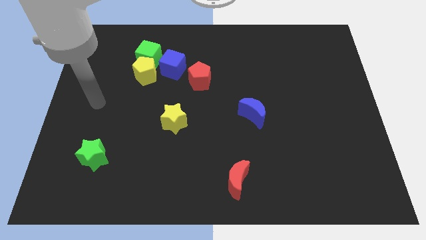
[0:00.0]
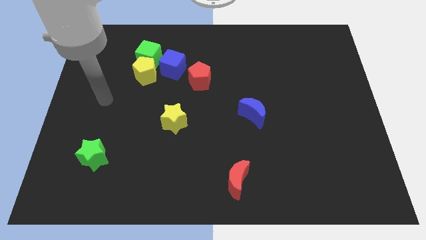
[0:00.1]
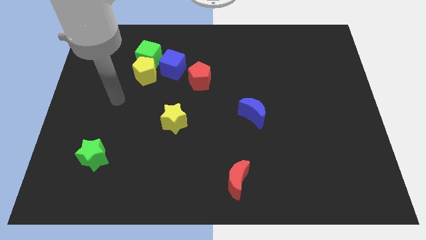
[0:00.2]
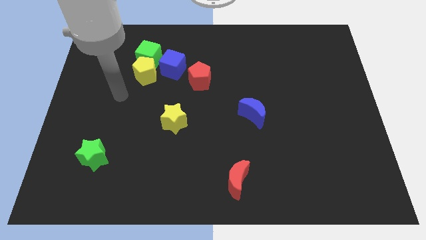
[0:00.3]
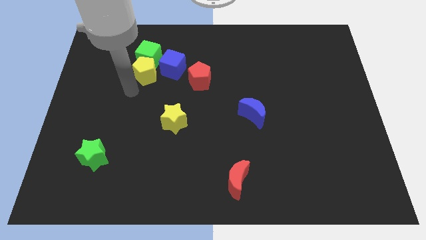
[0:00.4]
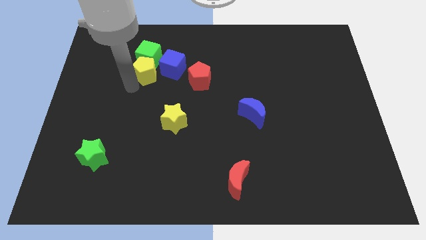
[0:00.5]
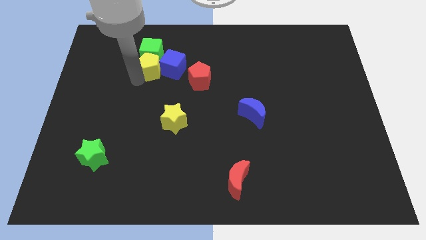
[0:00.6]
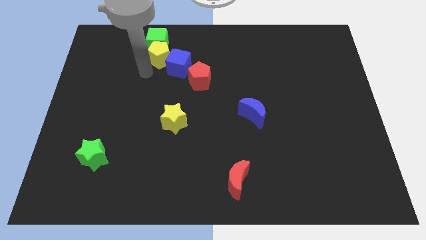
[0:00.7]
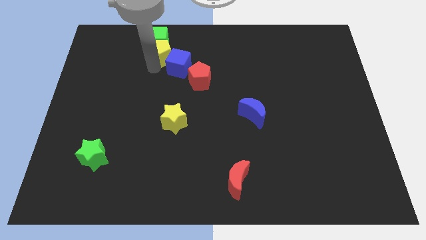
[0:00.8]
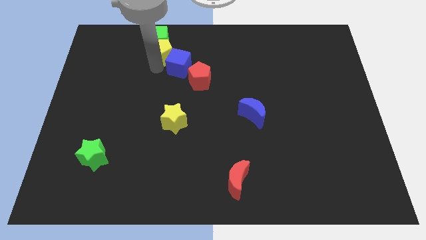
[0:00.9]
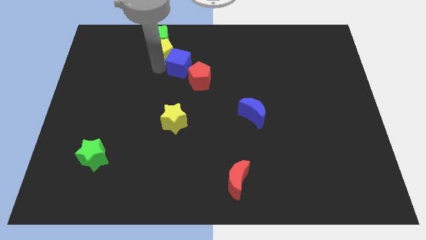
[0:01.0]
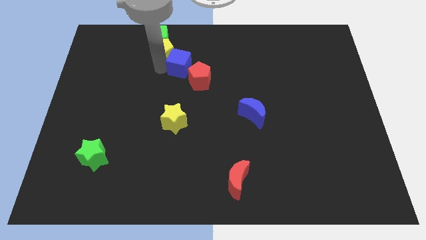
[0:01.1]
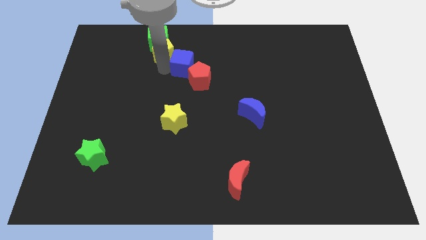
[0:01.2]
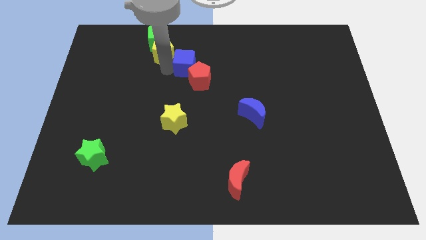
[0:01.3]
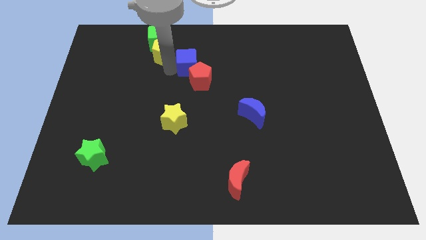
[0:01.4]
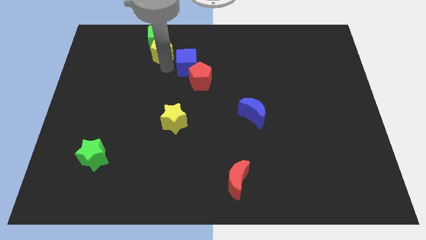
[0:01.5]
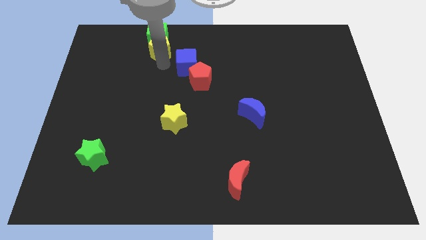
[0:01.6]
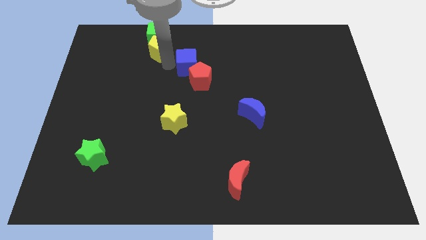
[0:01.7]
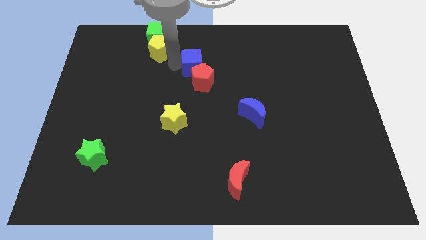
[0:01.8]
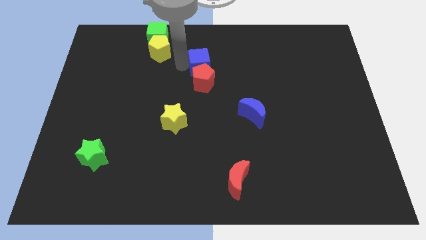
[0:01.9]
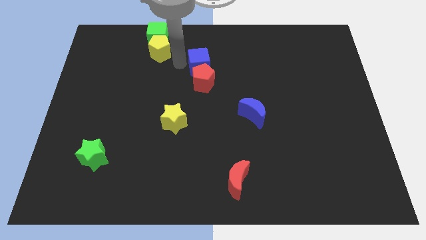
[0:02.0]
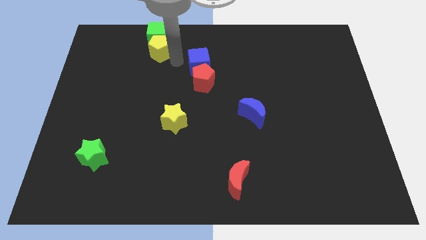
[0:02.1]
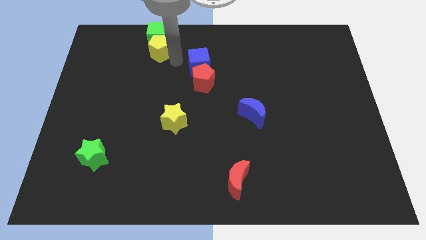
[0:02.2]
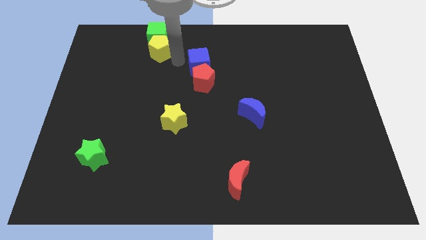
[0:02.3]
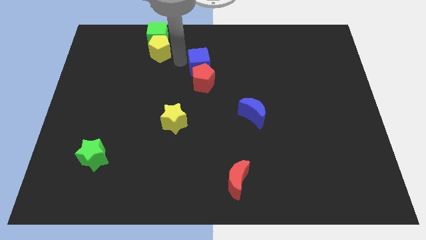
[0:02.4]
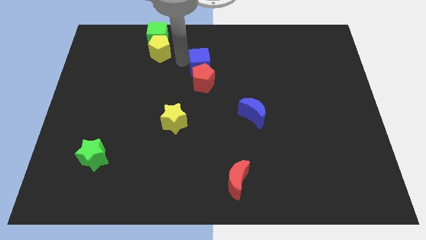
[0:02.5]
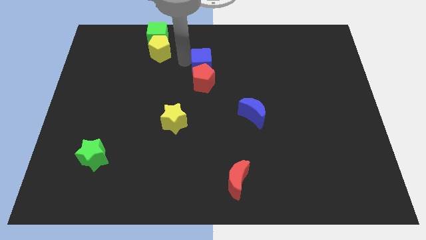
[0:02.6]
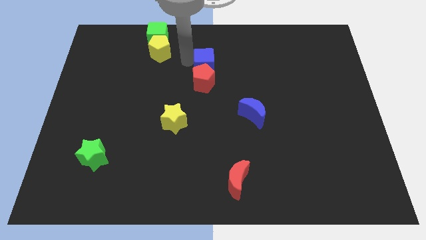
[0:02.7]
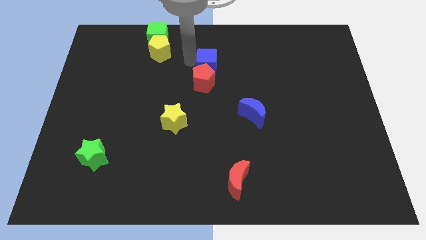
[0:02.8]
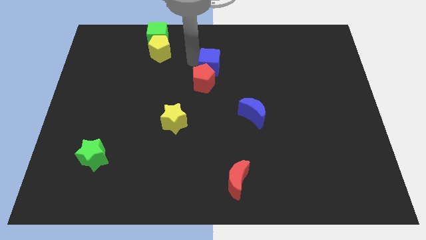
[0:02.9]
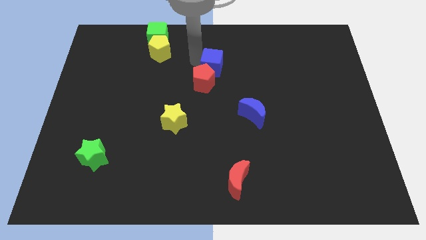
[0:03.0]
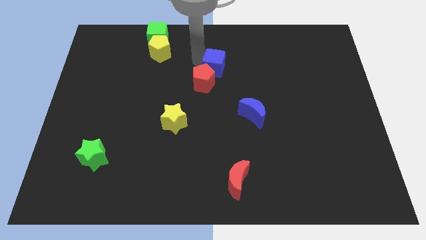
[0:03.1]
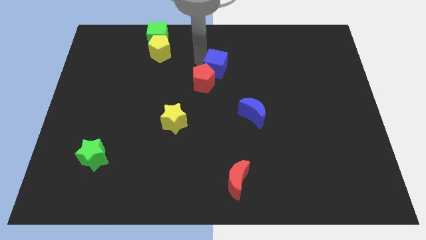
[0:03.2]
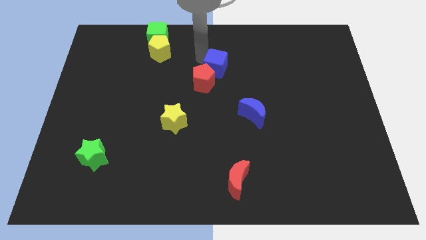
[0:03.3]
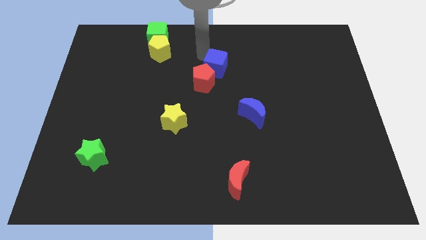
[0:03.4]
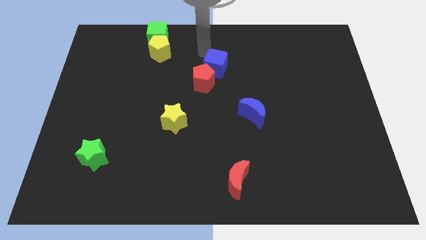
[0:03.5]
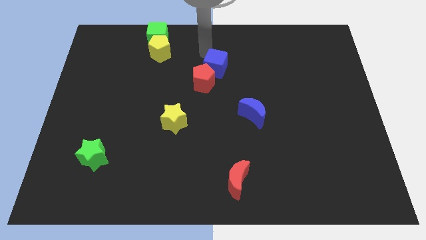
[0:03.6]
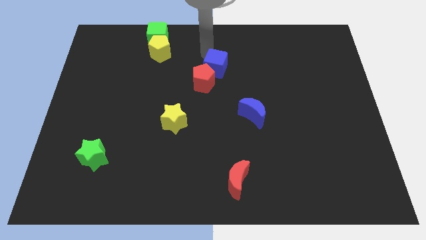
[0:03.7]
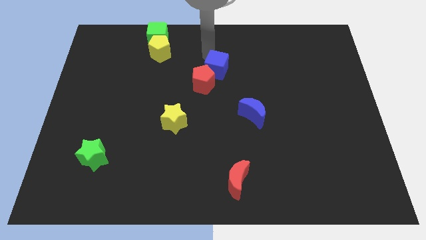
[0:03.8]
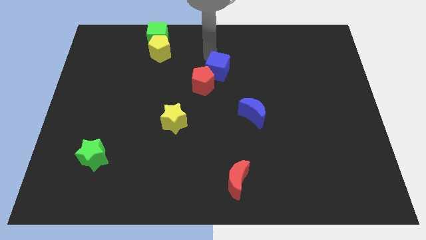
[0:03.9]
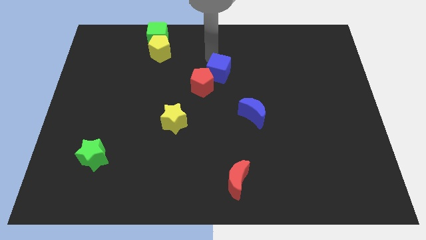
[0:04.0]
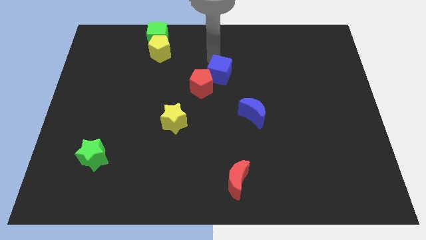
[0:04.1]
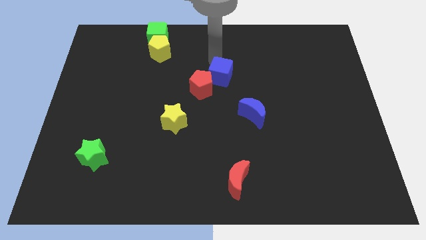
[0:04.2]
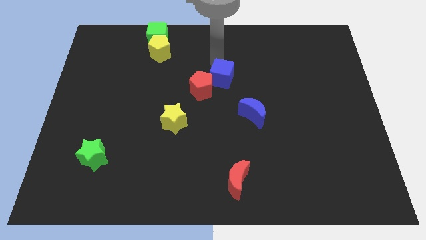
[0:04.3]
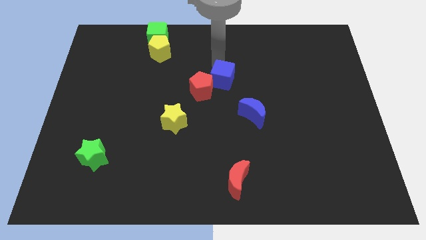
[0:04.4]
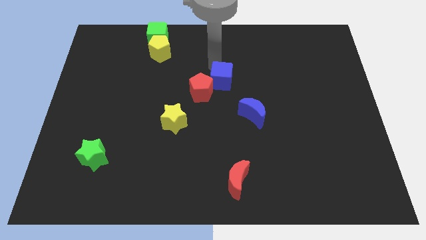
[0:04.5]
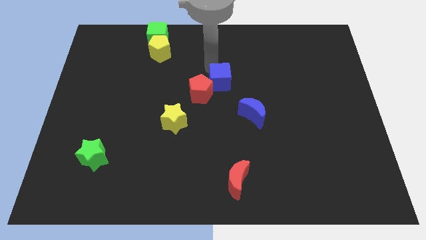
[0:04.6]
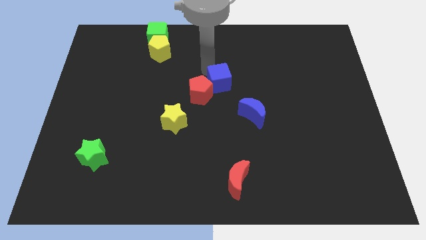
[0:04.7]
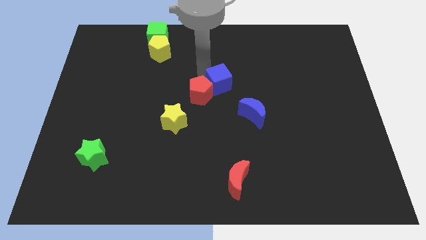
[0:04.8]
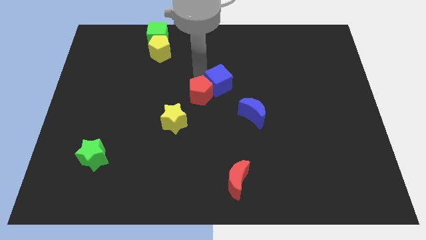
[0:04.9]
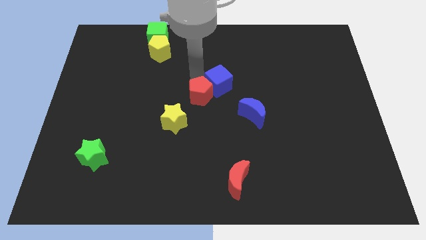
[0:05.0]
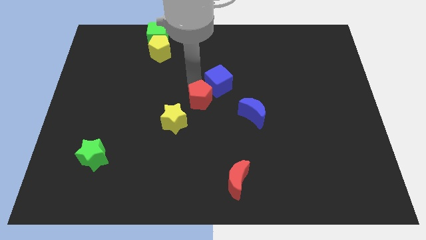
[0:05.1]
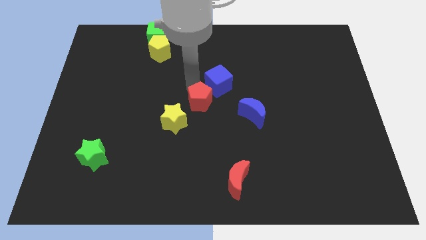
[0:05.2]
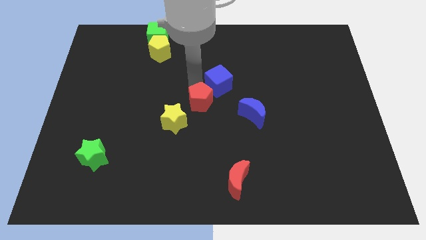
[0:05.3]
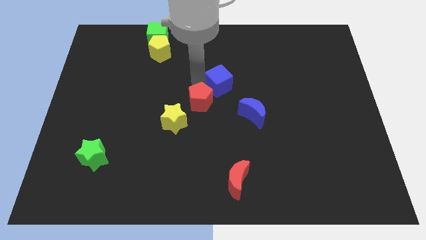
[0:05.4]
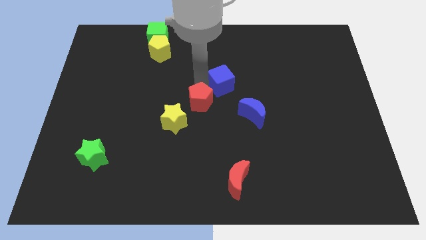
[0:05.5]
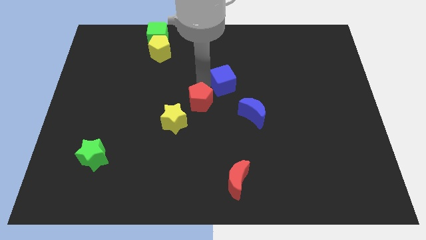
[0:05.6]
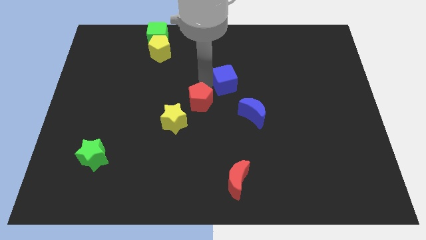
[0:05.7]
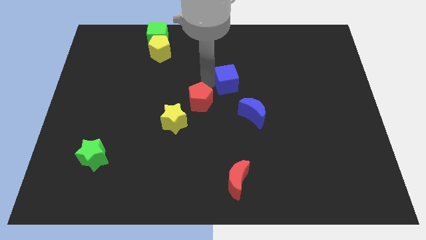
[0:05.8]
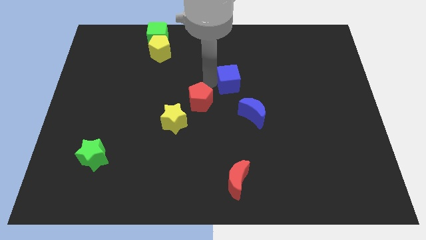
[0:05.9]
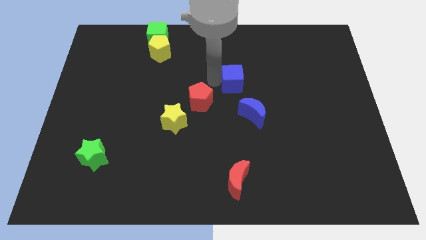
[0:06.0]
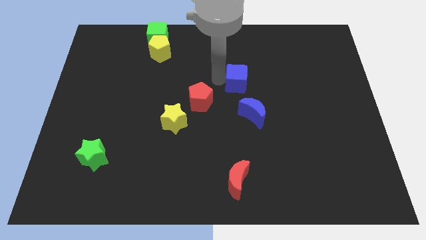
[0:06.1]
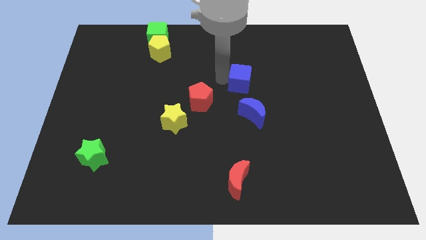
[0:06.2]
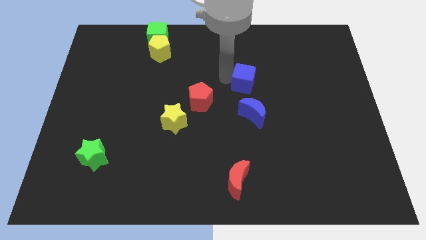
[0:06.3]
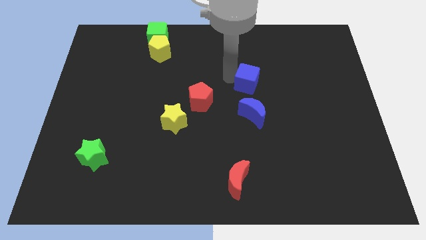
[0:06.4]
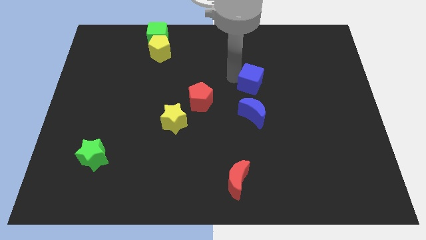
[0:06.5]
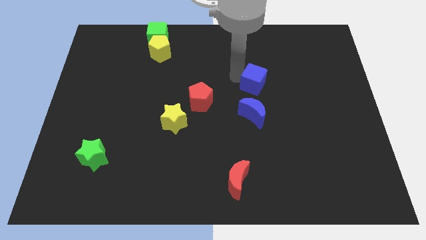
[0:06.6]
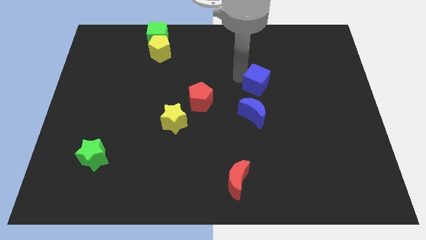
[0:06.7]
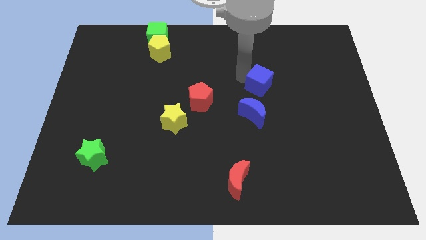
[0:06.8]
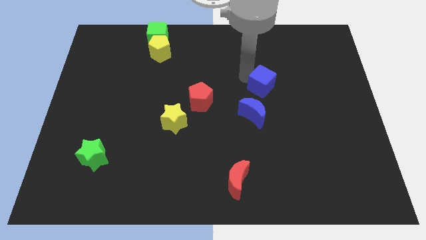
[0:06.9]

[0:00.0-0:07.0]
slide the blue cube to the top right of the blue moon

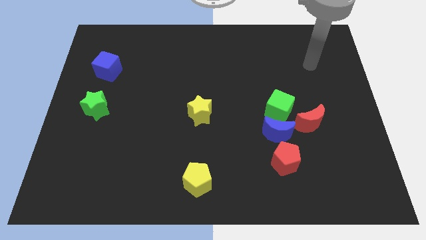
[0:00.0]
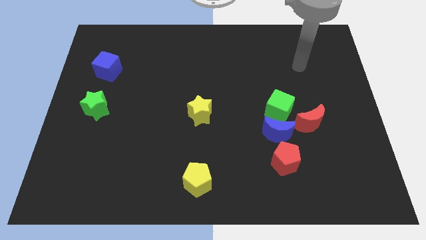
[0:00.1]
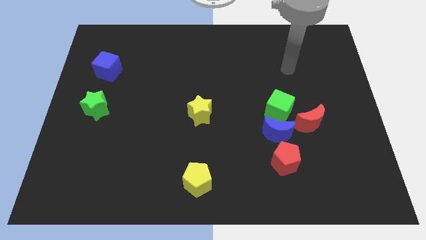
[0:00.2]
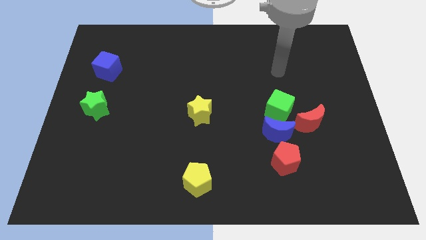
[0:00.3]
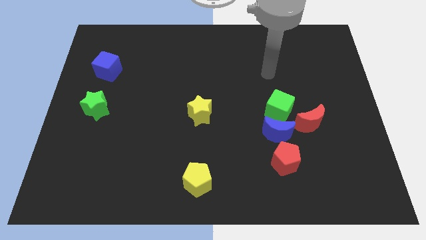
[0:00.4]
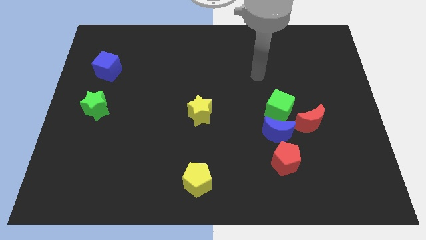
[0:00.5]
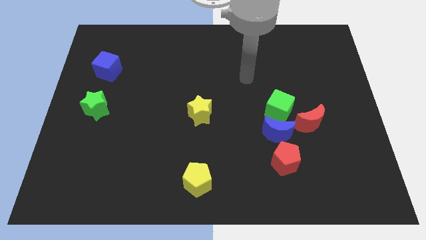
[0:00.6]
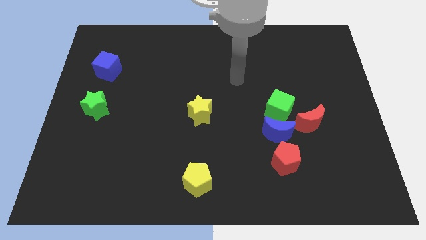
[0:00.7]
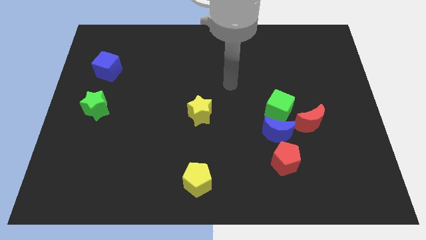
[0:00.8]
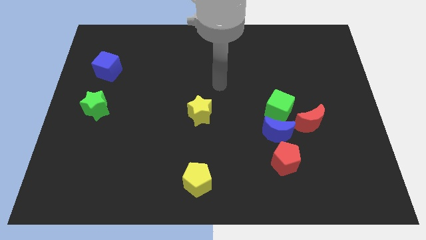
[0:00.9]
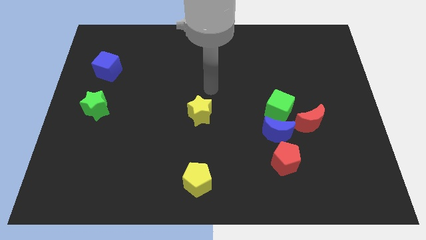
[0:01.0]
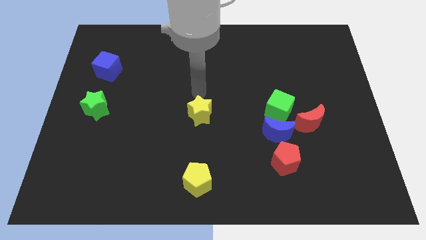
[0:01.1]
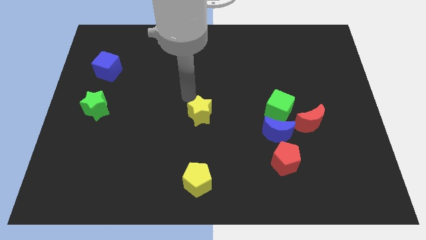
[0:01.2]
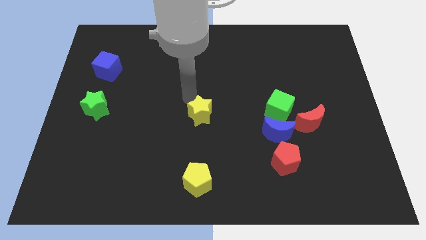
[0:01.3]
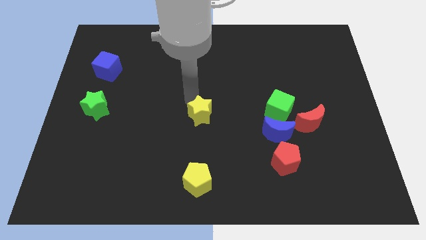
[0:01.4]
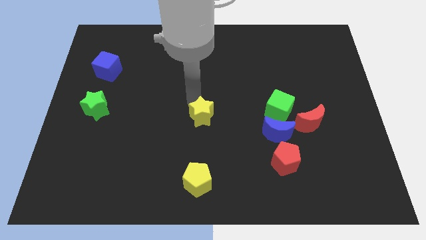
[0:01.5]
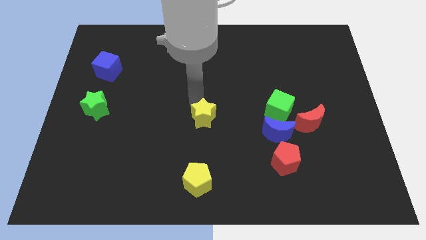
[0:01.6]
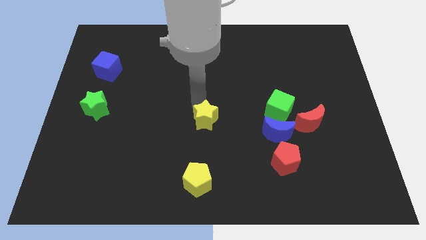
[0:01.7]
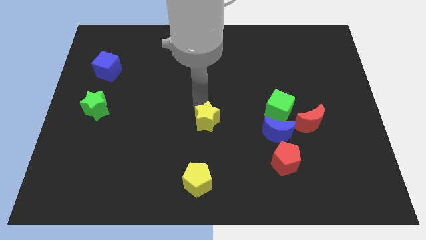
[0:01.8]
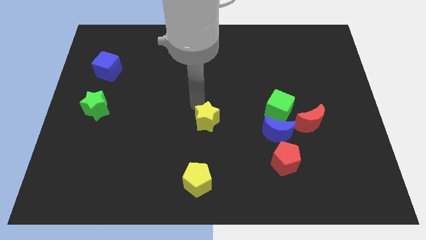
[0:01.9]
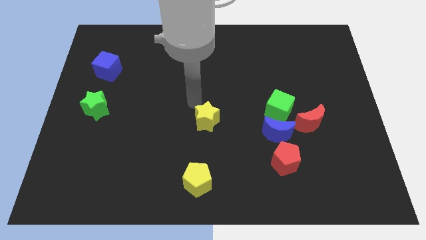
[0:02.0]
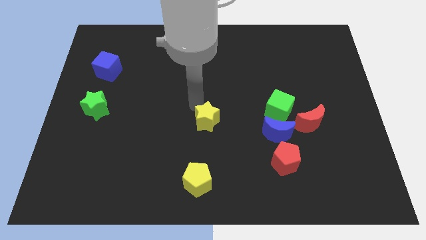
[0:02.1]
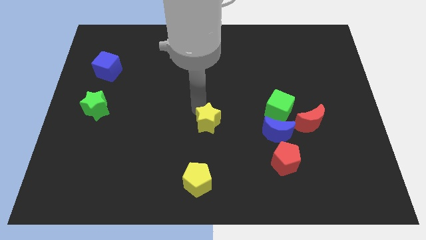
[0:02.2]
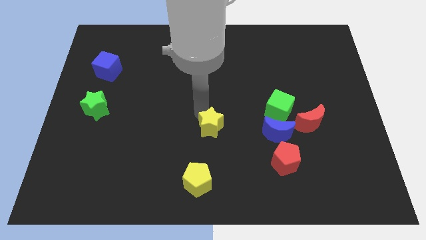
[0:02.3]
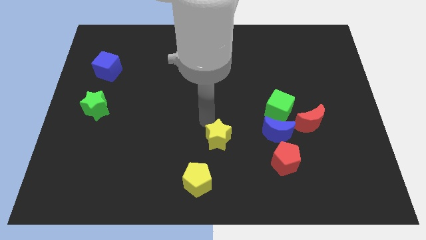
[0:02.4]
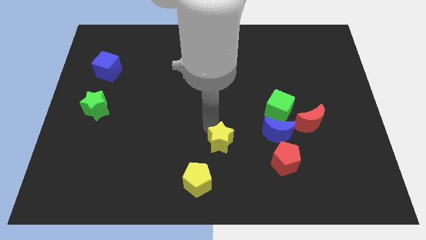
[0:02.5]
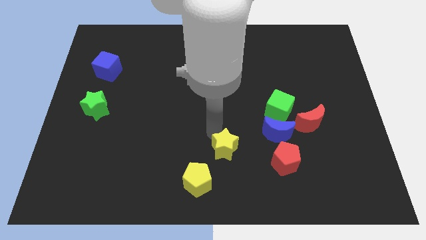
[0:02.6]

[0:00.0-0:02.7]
move the yellow star left of the red pentagon
